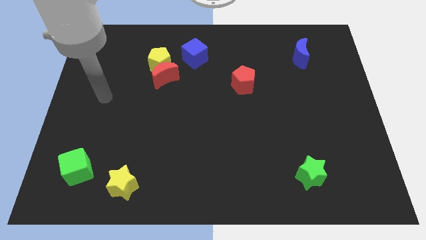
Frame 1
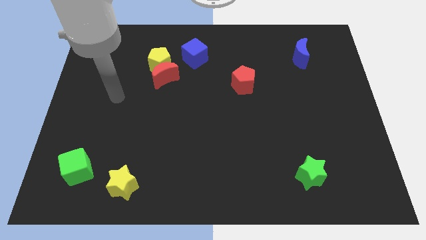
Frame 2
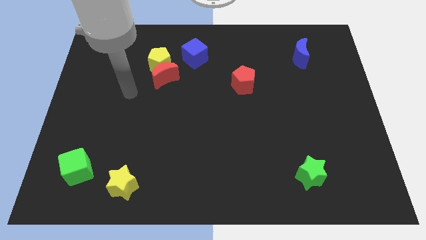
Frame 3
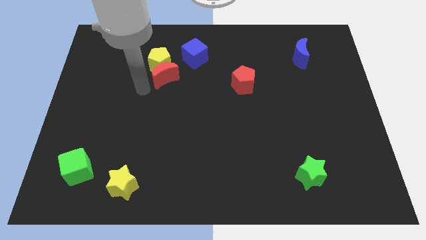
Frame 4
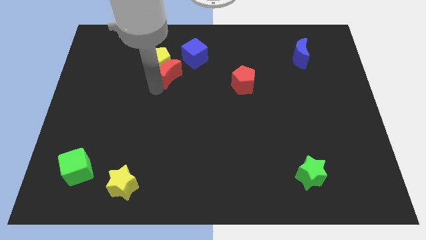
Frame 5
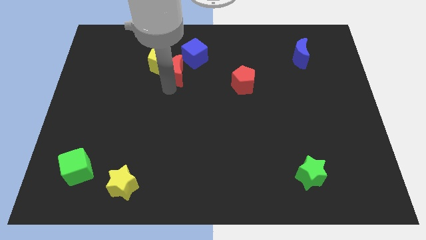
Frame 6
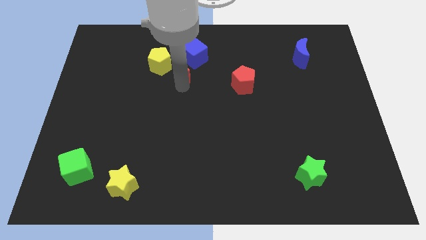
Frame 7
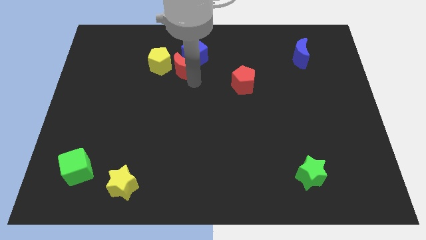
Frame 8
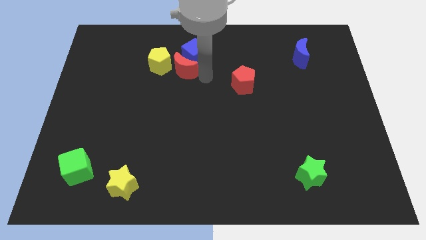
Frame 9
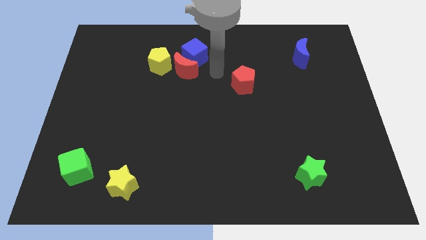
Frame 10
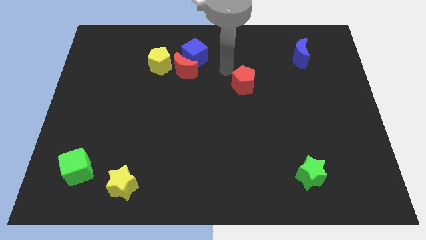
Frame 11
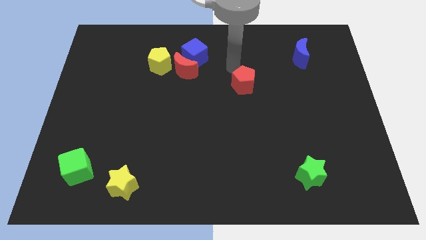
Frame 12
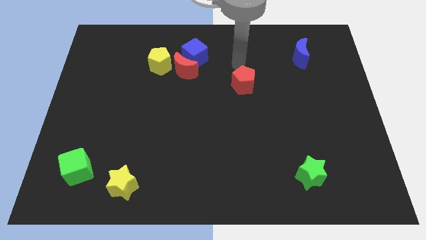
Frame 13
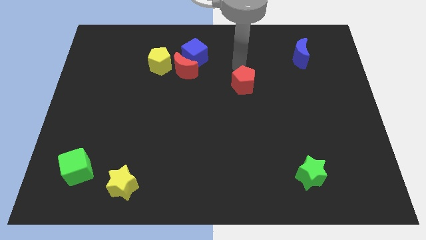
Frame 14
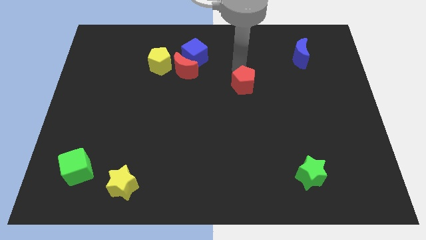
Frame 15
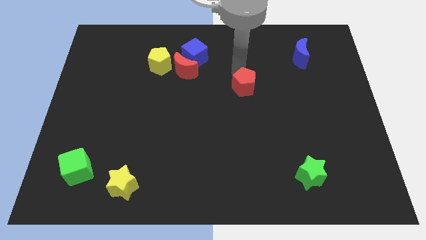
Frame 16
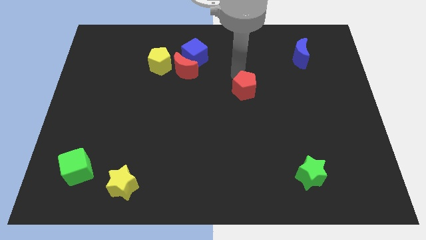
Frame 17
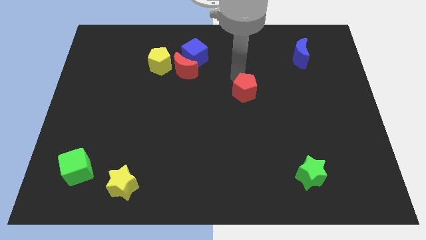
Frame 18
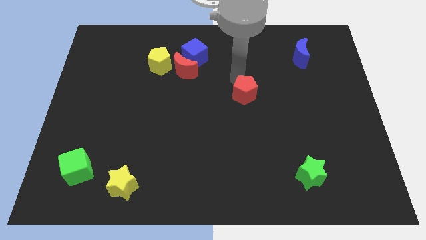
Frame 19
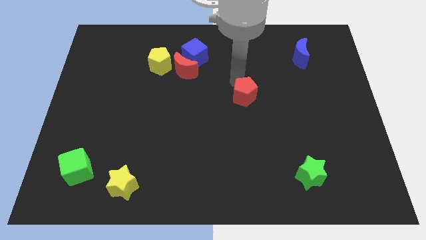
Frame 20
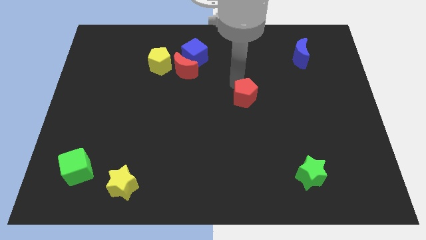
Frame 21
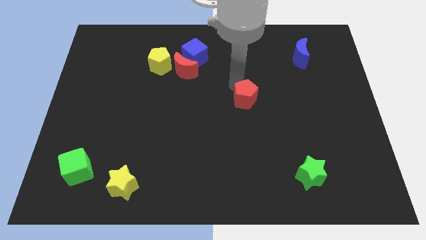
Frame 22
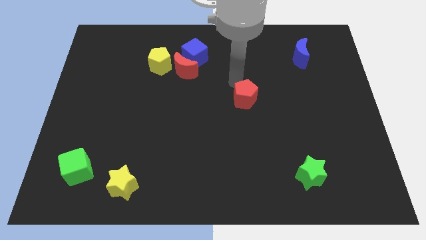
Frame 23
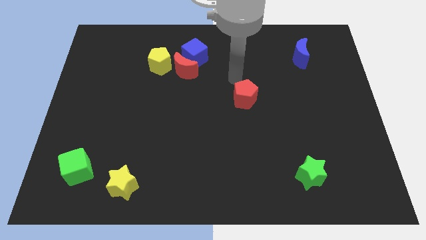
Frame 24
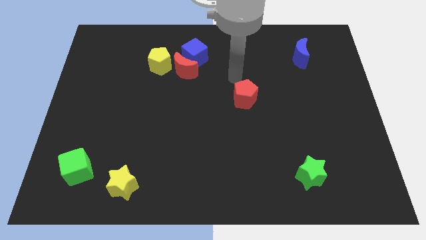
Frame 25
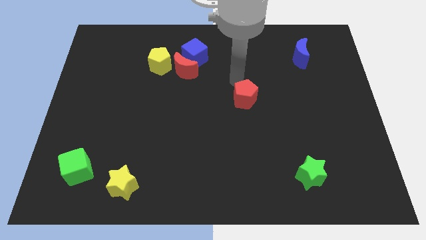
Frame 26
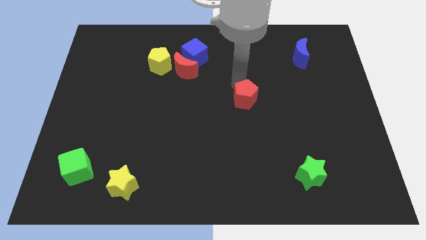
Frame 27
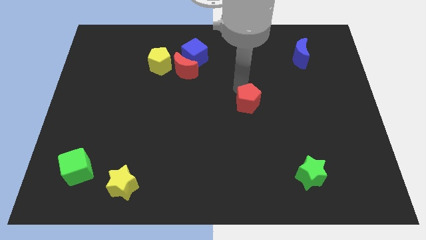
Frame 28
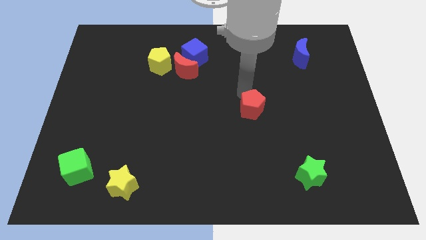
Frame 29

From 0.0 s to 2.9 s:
slide the red pentagon slightly downwards

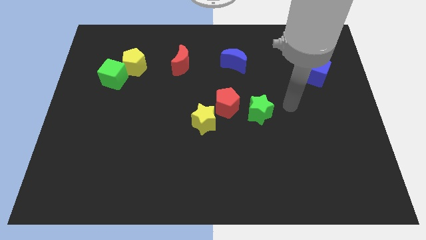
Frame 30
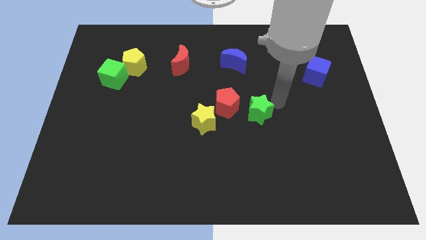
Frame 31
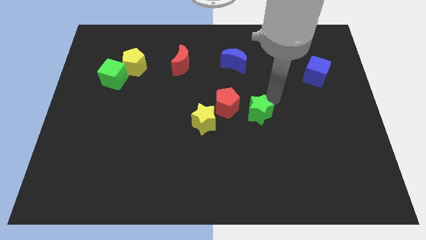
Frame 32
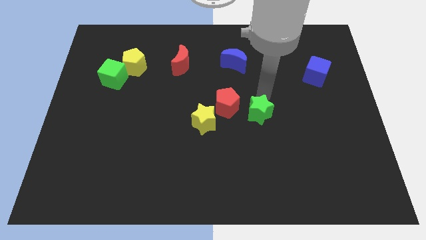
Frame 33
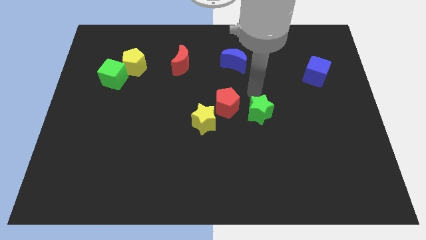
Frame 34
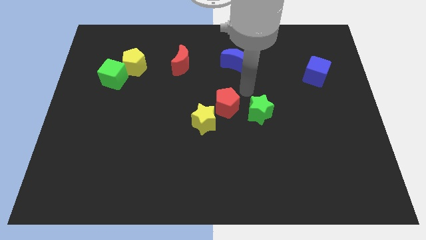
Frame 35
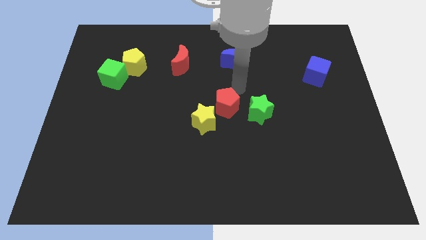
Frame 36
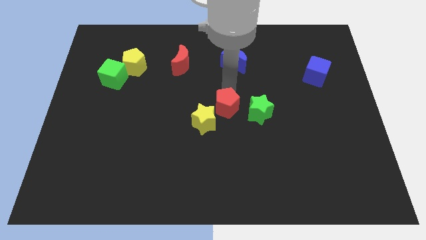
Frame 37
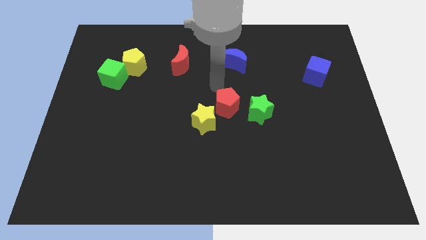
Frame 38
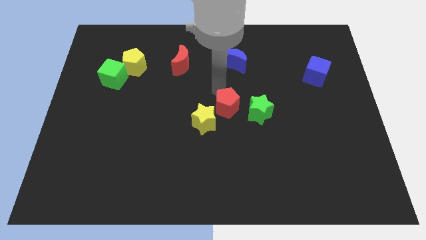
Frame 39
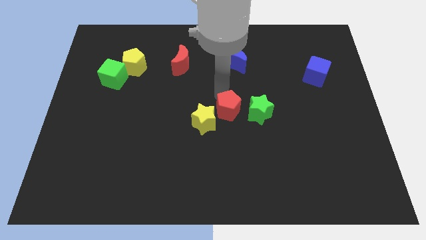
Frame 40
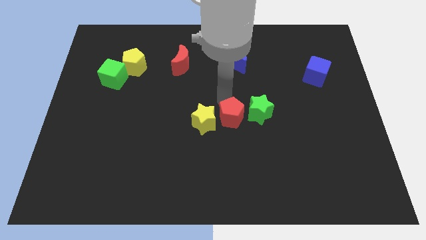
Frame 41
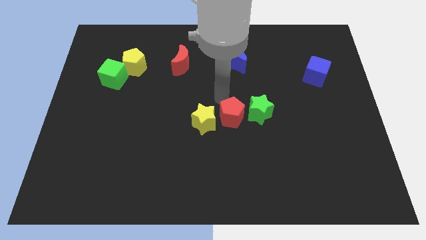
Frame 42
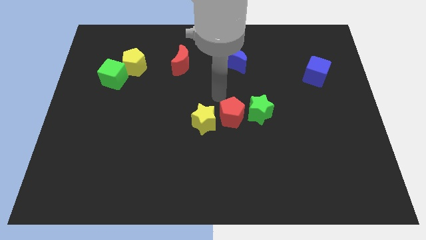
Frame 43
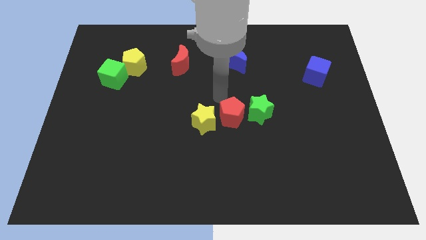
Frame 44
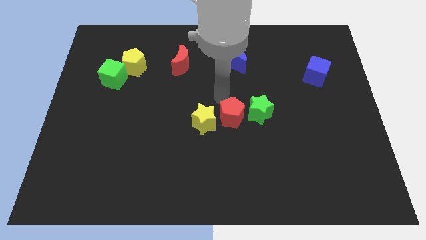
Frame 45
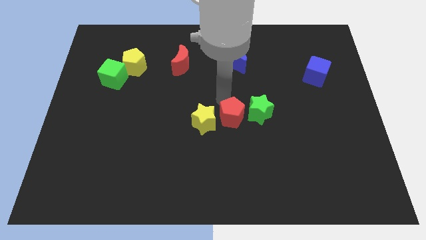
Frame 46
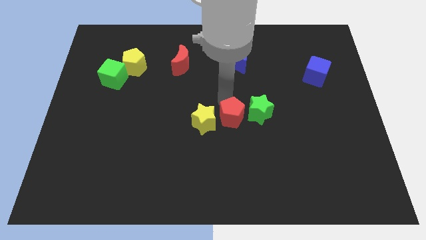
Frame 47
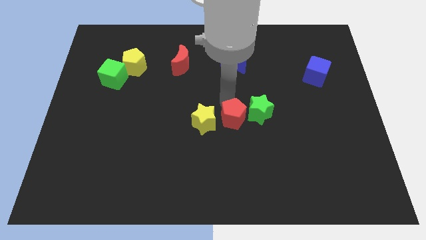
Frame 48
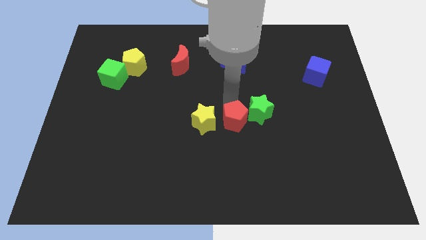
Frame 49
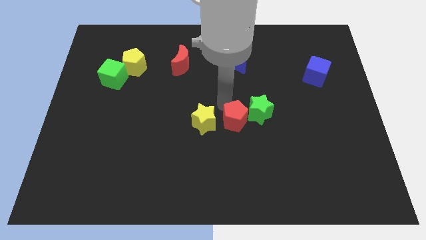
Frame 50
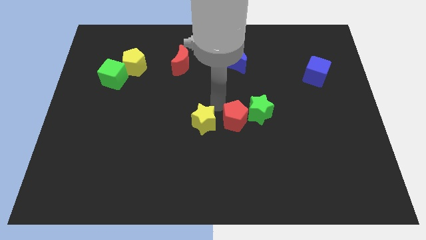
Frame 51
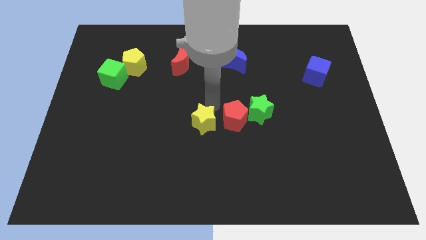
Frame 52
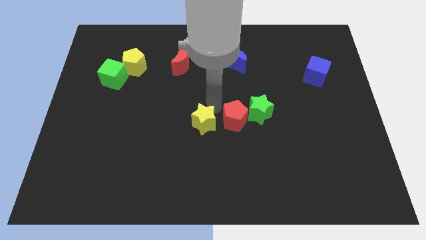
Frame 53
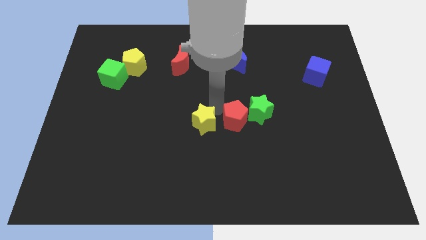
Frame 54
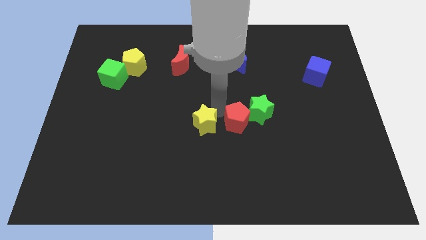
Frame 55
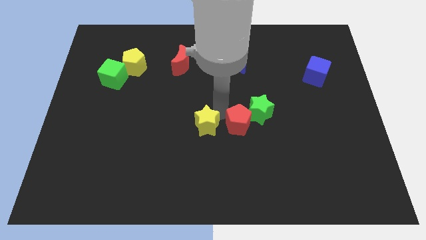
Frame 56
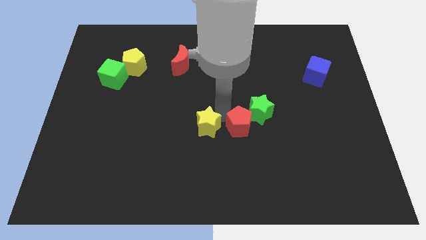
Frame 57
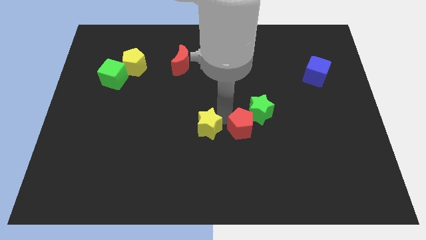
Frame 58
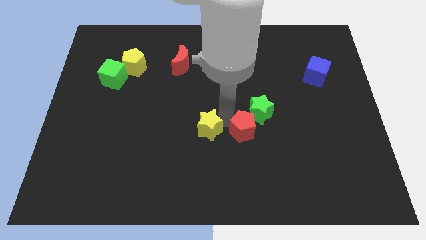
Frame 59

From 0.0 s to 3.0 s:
push the red pentagon somewhat down and to the right diagonally

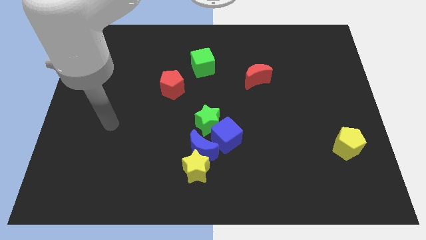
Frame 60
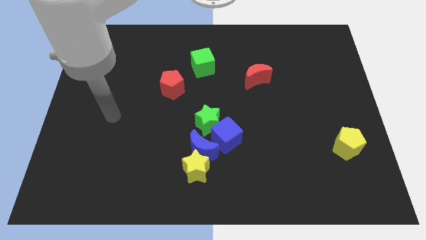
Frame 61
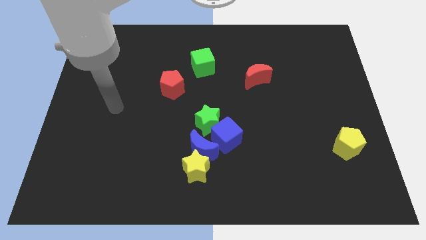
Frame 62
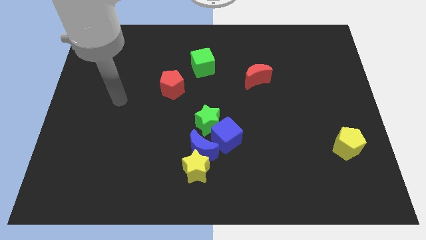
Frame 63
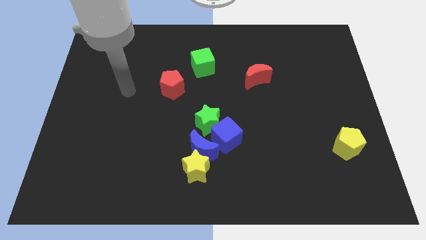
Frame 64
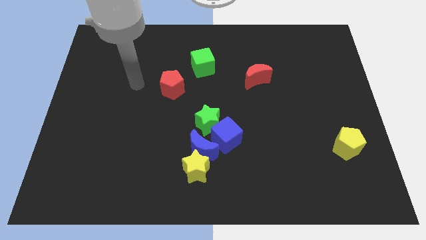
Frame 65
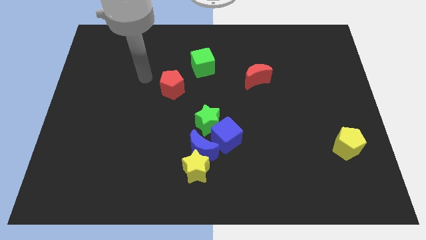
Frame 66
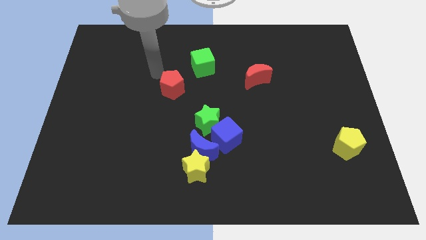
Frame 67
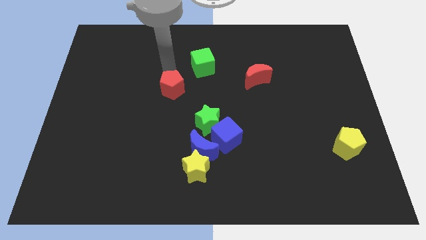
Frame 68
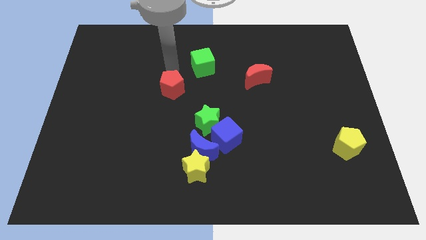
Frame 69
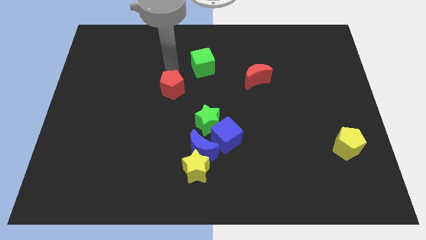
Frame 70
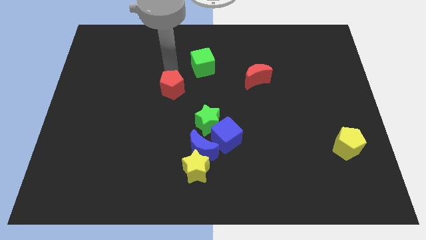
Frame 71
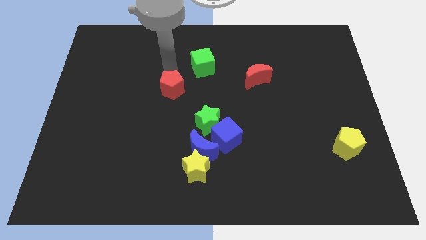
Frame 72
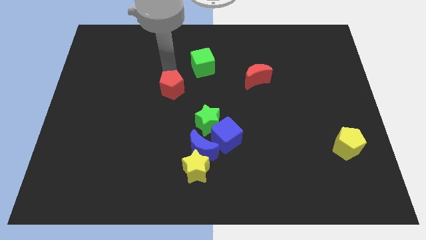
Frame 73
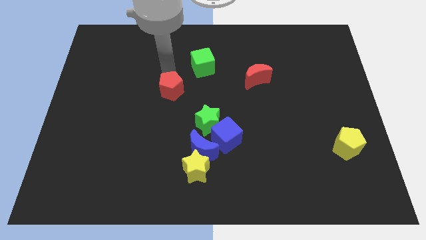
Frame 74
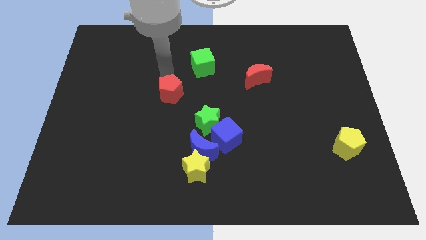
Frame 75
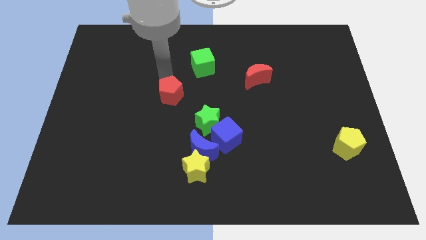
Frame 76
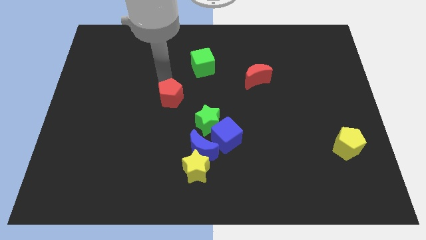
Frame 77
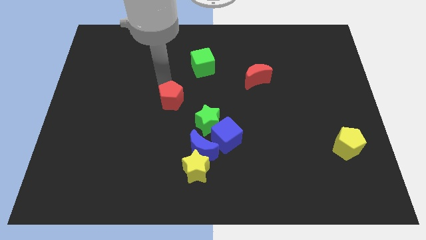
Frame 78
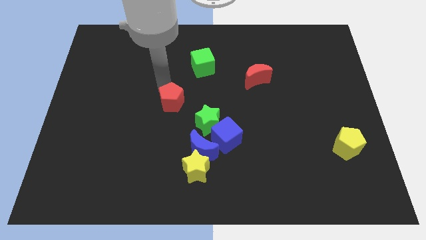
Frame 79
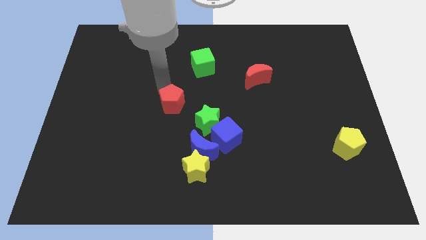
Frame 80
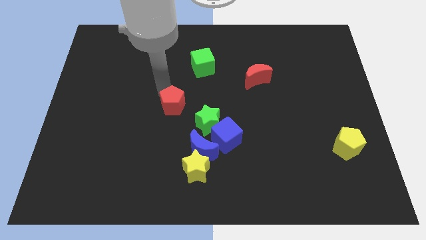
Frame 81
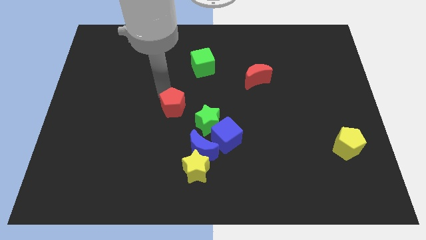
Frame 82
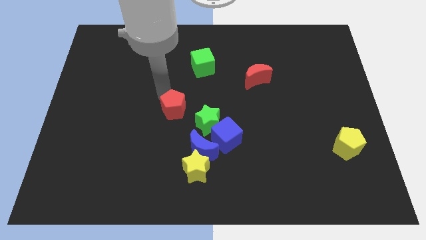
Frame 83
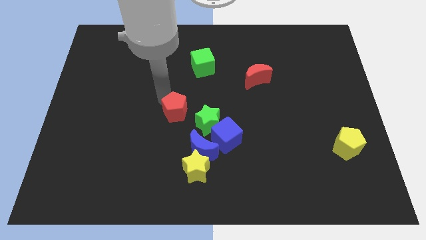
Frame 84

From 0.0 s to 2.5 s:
slightly slide the red pentagon down
